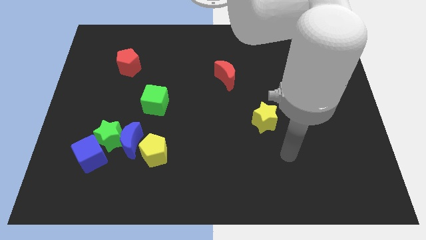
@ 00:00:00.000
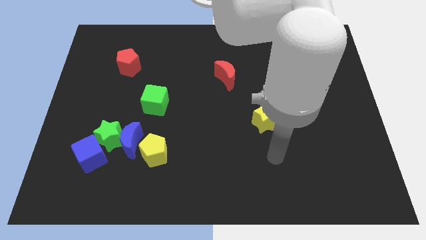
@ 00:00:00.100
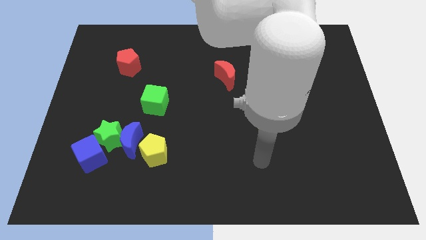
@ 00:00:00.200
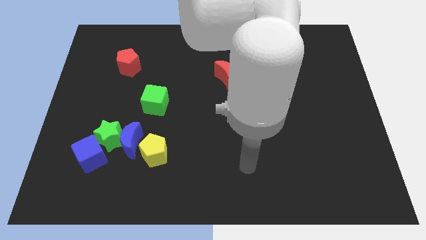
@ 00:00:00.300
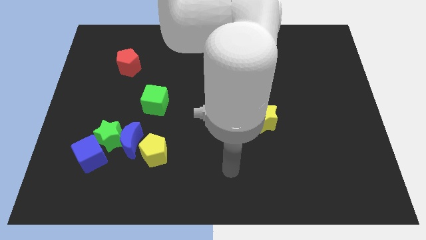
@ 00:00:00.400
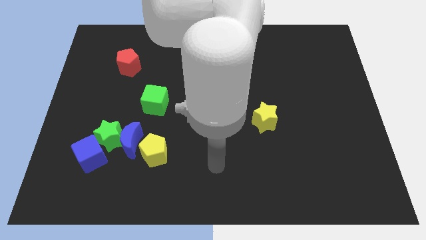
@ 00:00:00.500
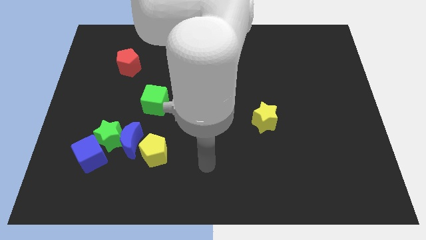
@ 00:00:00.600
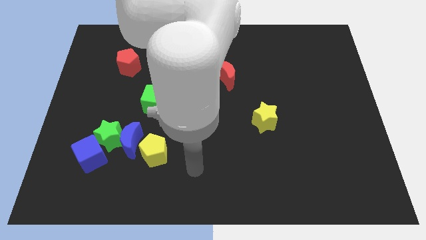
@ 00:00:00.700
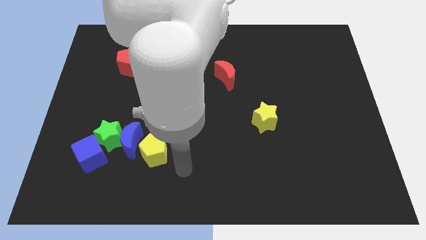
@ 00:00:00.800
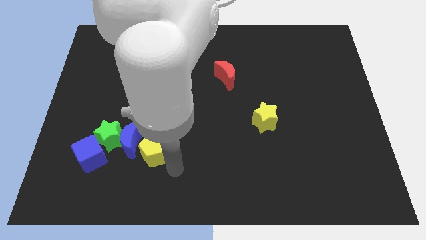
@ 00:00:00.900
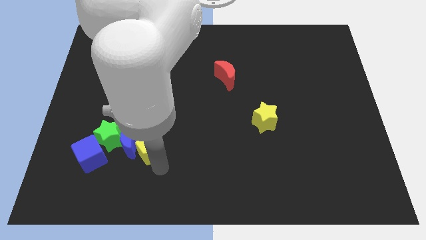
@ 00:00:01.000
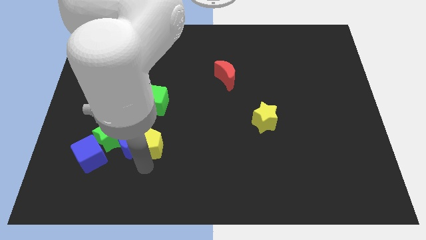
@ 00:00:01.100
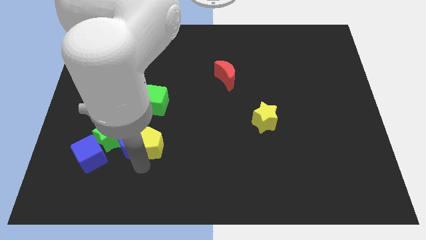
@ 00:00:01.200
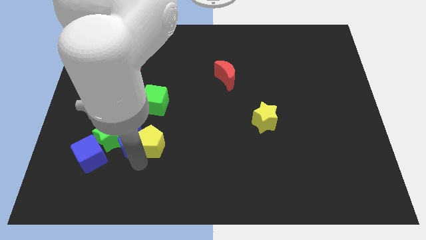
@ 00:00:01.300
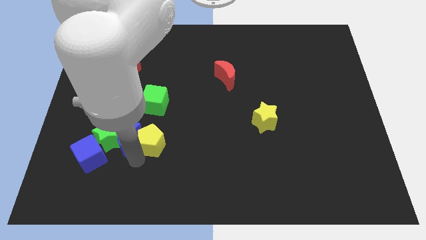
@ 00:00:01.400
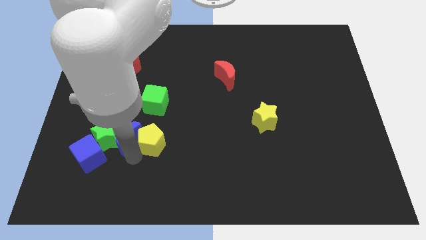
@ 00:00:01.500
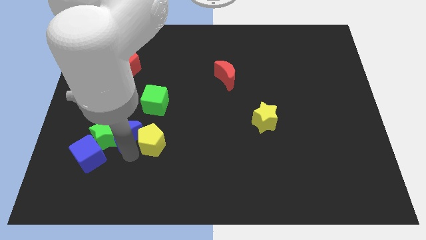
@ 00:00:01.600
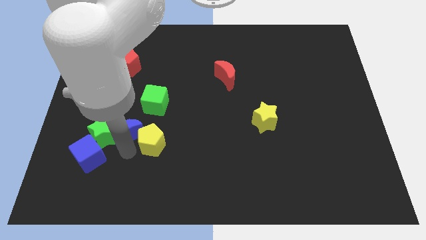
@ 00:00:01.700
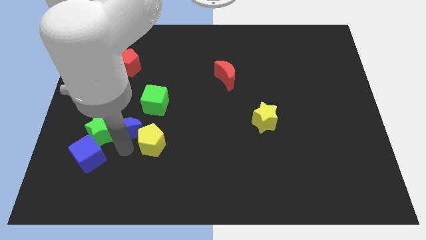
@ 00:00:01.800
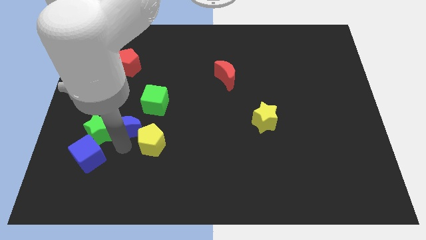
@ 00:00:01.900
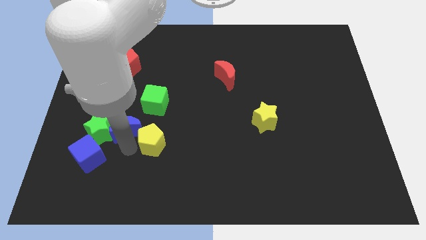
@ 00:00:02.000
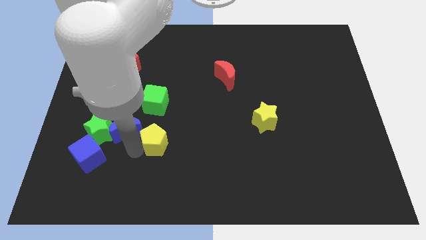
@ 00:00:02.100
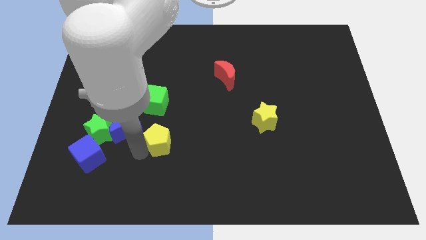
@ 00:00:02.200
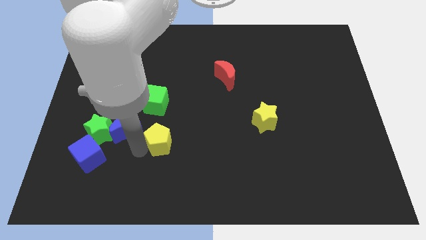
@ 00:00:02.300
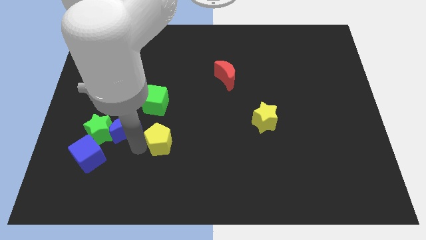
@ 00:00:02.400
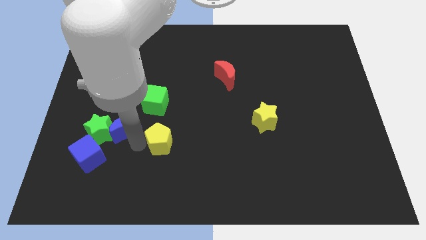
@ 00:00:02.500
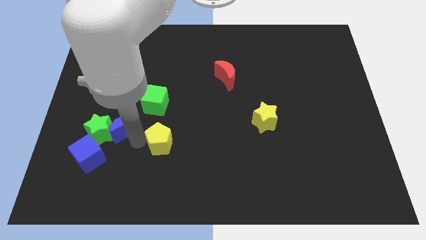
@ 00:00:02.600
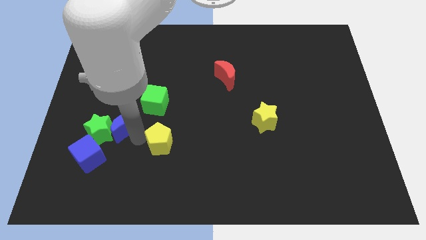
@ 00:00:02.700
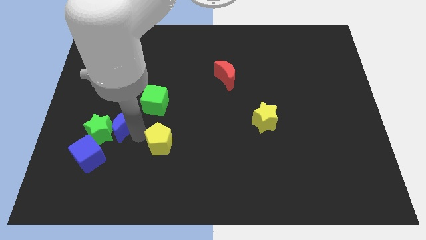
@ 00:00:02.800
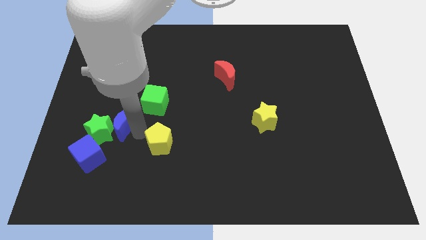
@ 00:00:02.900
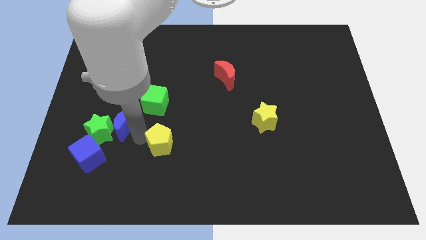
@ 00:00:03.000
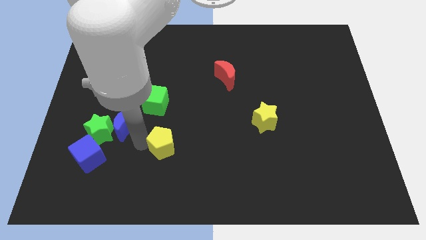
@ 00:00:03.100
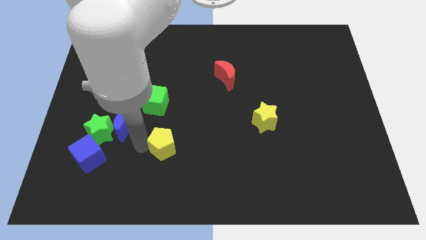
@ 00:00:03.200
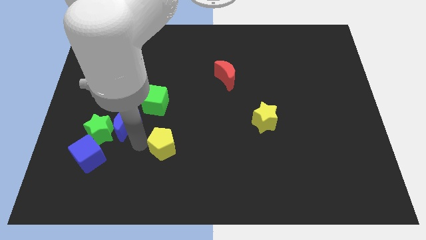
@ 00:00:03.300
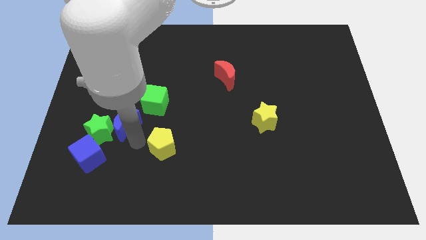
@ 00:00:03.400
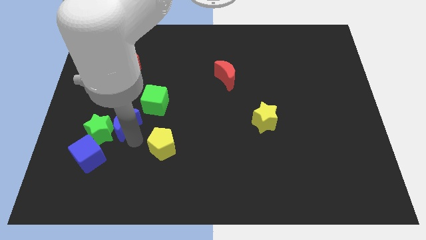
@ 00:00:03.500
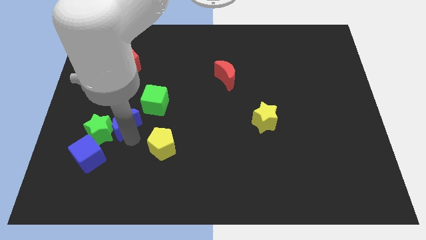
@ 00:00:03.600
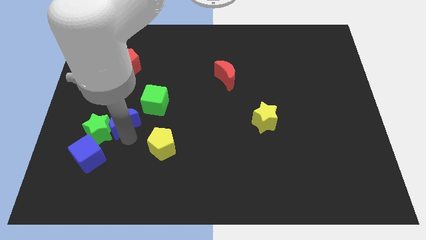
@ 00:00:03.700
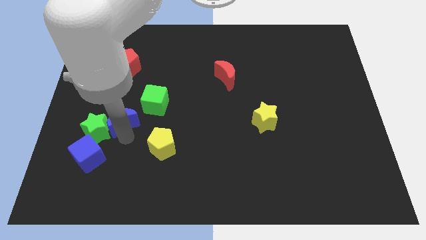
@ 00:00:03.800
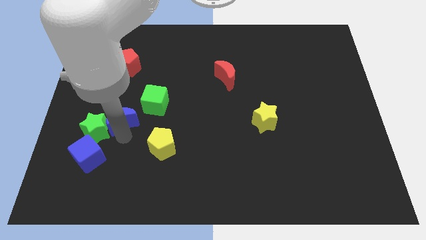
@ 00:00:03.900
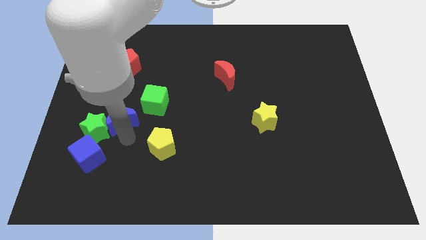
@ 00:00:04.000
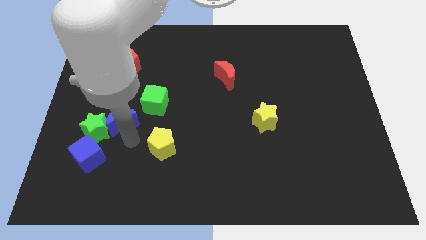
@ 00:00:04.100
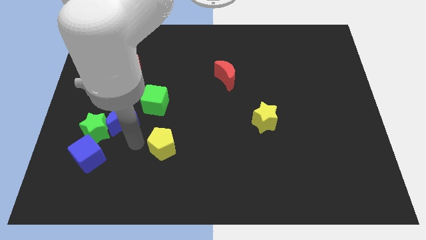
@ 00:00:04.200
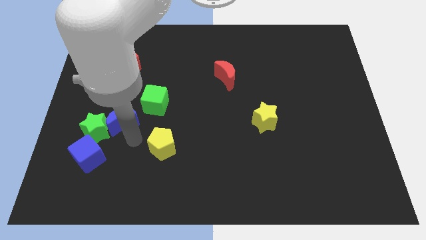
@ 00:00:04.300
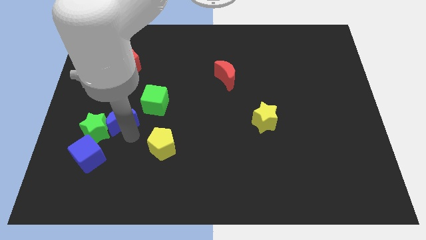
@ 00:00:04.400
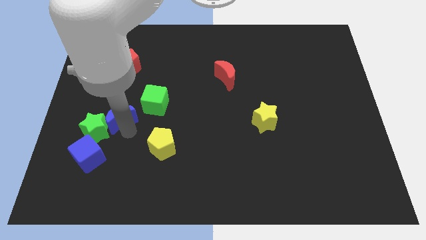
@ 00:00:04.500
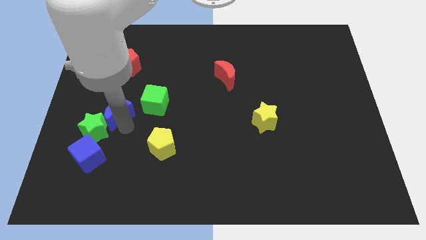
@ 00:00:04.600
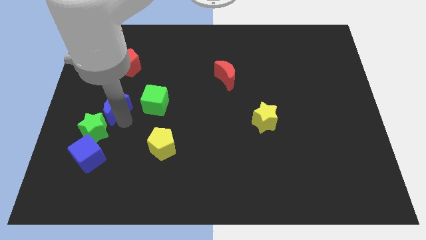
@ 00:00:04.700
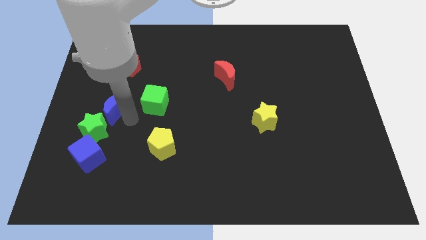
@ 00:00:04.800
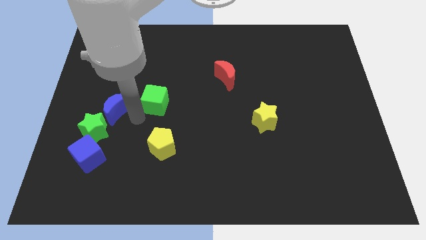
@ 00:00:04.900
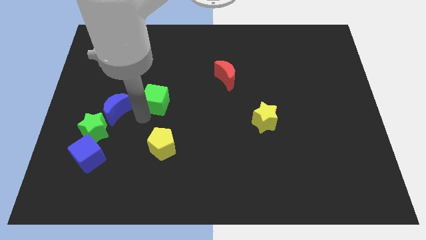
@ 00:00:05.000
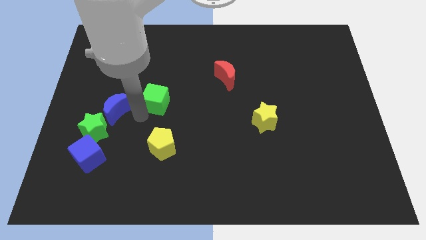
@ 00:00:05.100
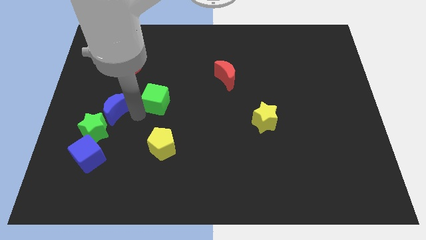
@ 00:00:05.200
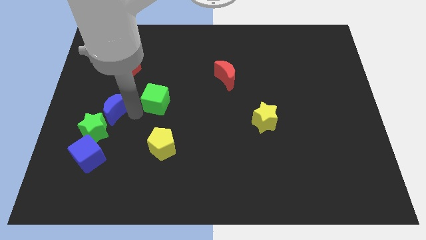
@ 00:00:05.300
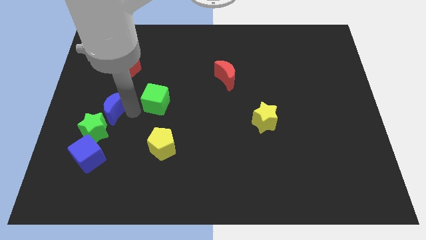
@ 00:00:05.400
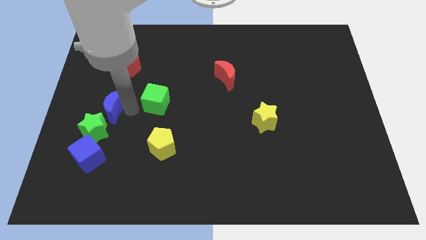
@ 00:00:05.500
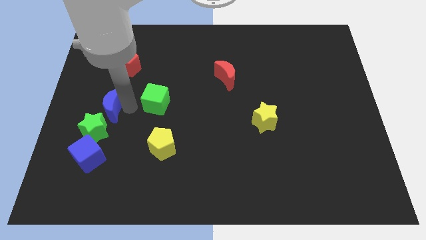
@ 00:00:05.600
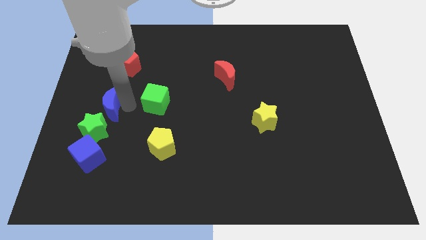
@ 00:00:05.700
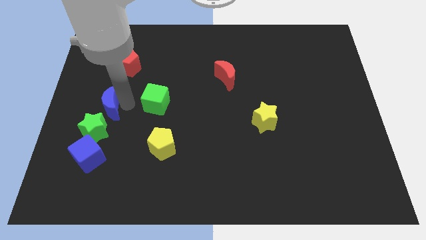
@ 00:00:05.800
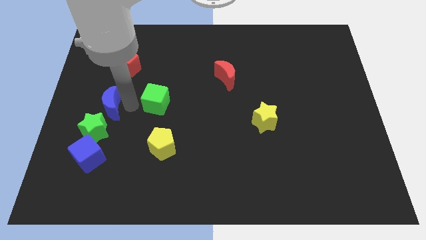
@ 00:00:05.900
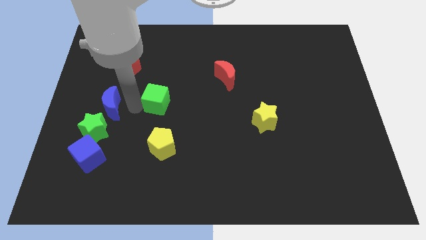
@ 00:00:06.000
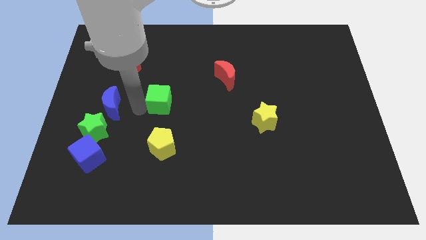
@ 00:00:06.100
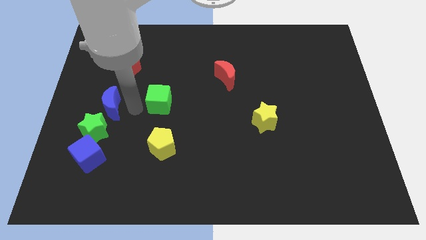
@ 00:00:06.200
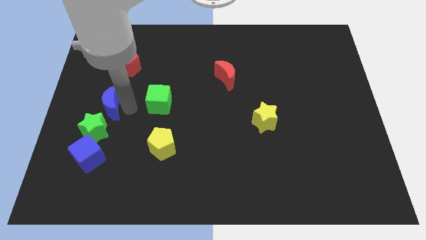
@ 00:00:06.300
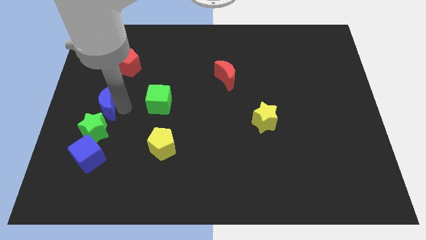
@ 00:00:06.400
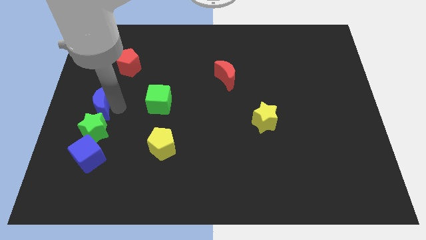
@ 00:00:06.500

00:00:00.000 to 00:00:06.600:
move the blue moon to the left side of the board
